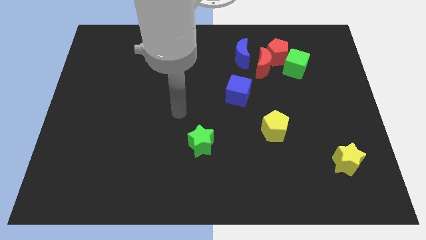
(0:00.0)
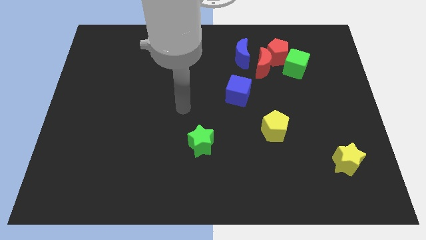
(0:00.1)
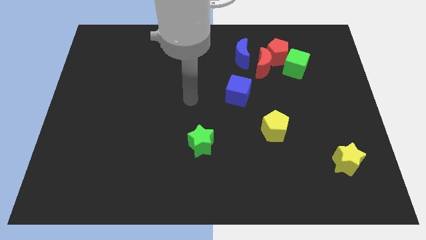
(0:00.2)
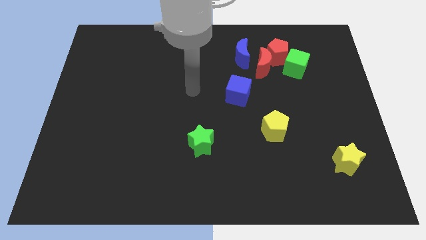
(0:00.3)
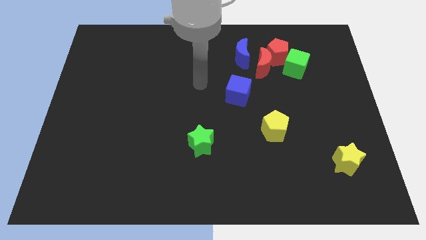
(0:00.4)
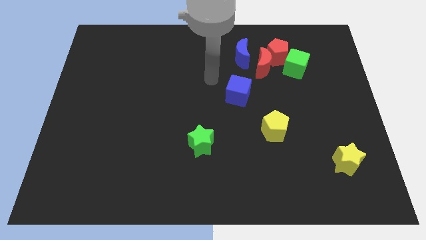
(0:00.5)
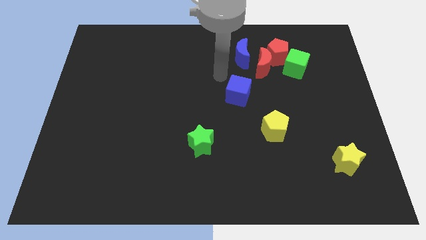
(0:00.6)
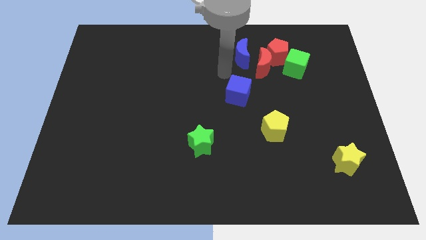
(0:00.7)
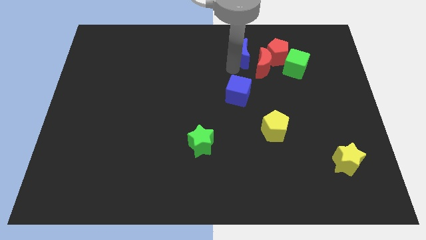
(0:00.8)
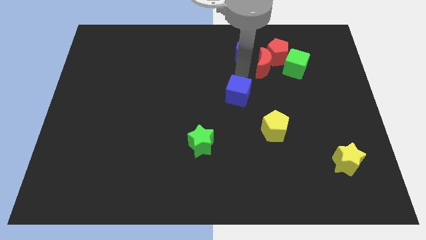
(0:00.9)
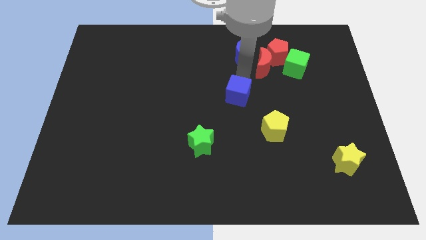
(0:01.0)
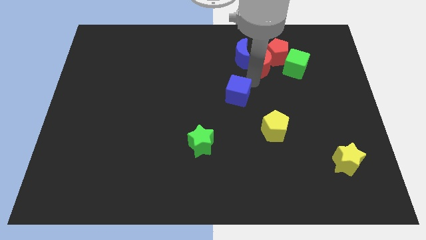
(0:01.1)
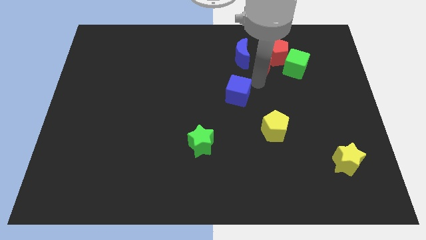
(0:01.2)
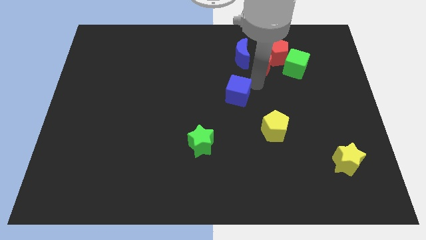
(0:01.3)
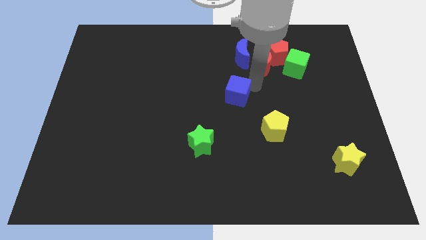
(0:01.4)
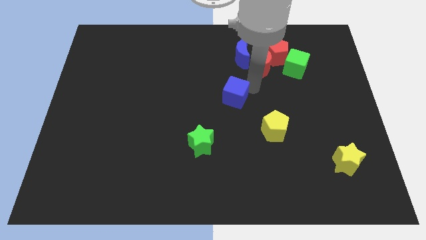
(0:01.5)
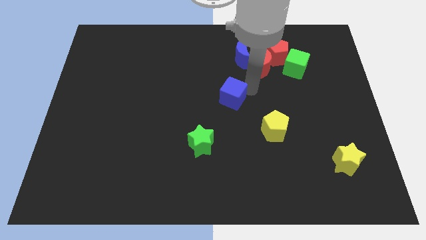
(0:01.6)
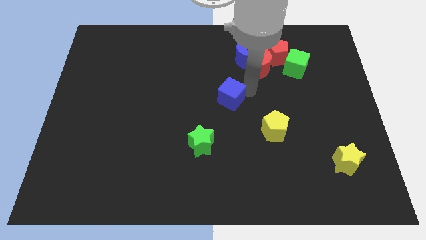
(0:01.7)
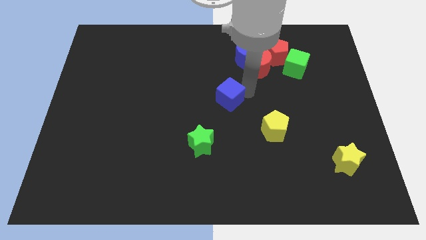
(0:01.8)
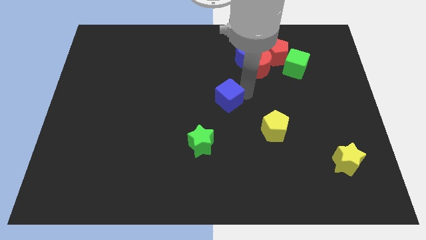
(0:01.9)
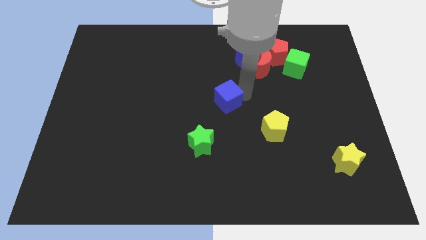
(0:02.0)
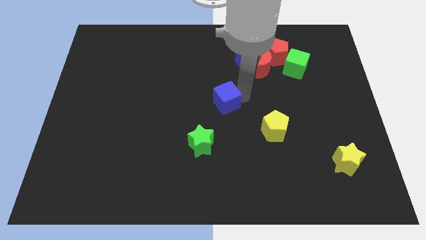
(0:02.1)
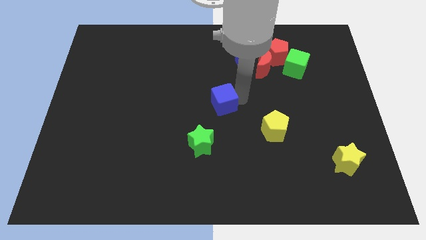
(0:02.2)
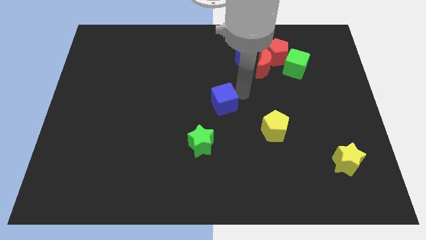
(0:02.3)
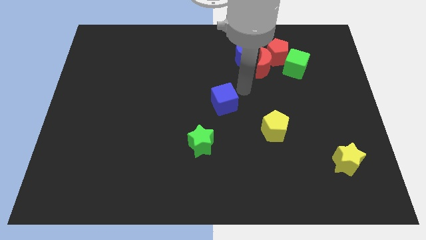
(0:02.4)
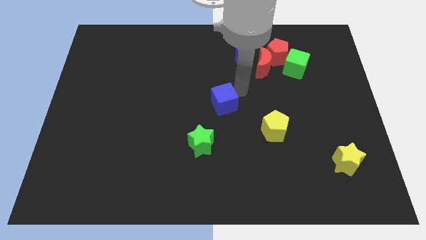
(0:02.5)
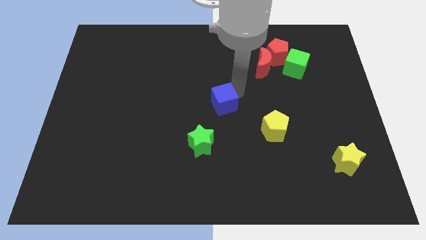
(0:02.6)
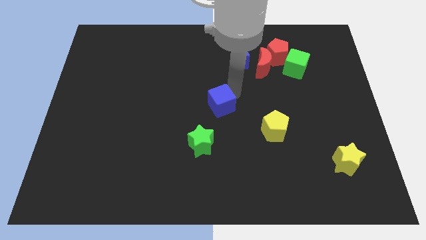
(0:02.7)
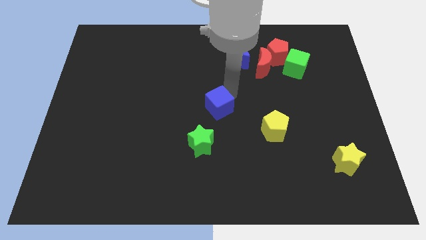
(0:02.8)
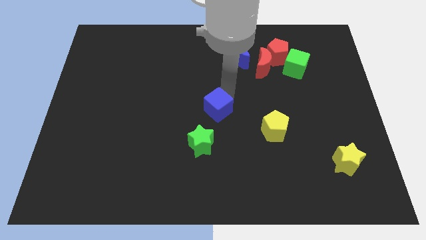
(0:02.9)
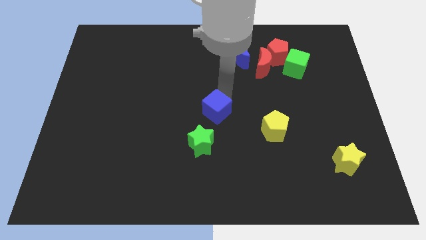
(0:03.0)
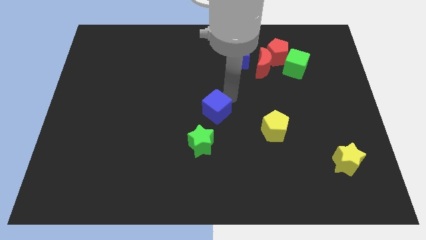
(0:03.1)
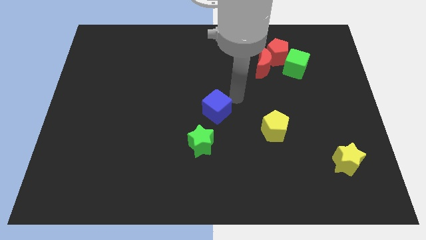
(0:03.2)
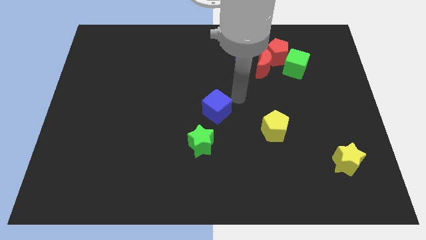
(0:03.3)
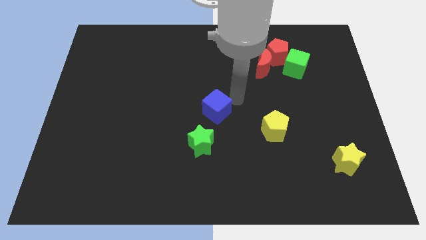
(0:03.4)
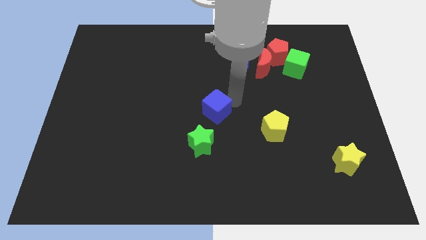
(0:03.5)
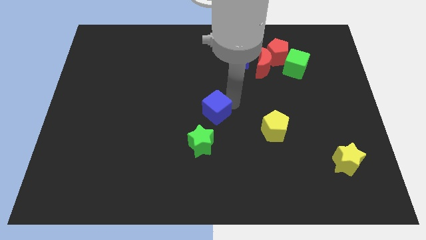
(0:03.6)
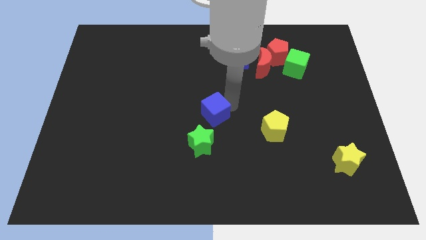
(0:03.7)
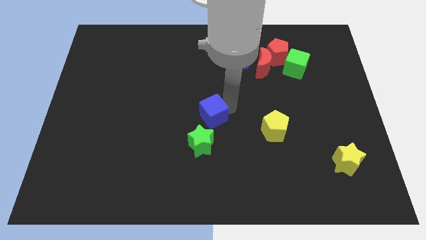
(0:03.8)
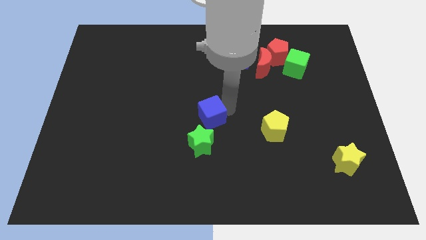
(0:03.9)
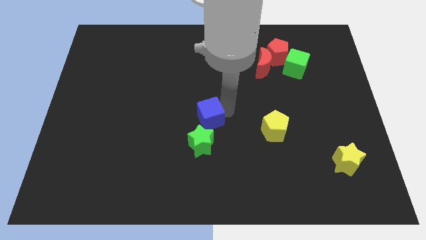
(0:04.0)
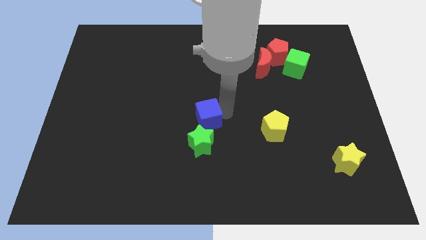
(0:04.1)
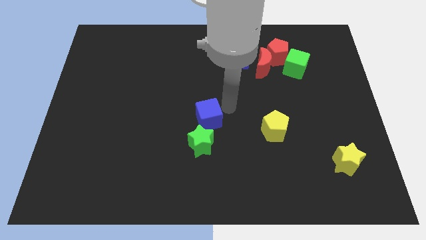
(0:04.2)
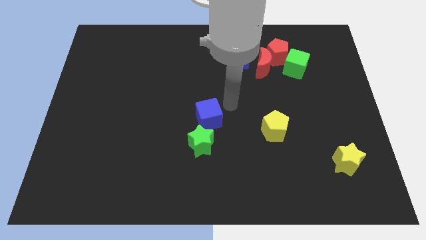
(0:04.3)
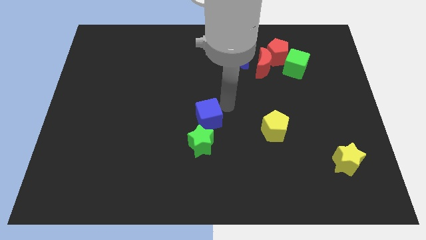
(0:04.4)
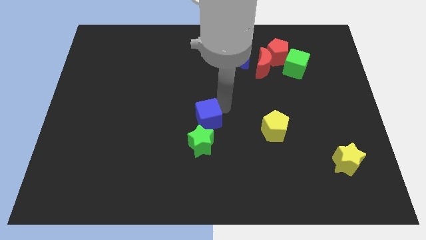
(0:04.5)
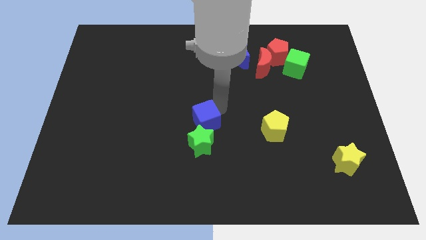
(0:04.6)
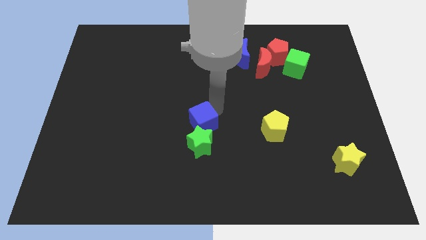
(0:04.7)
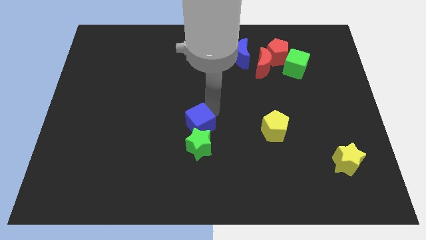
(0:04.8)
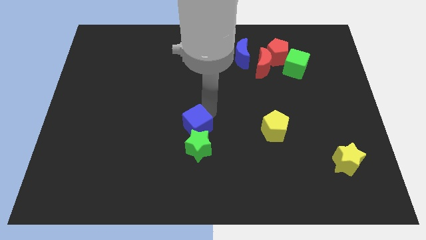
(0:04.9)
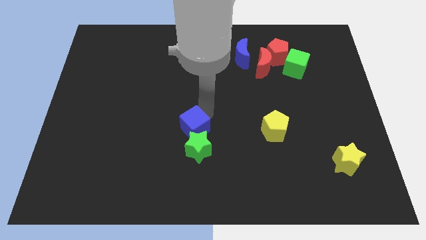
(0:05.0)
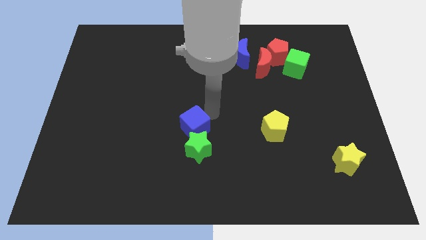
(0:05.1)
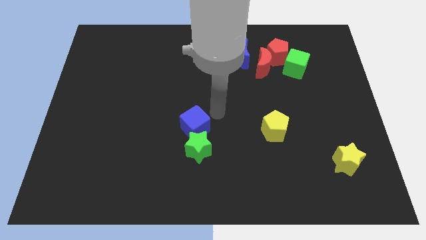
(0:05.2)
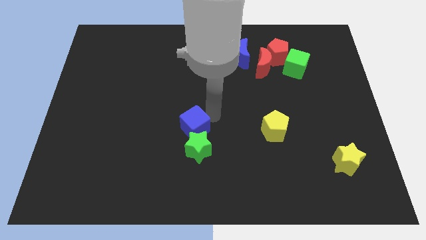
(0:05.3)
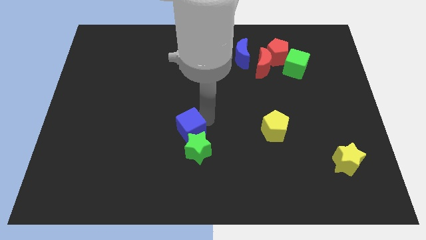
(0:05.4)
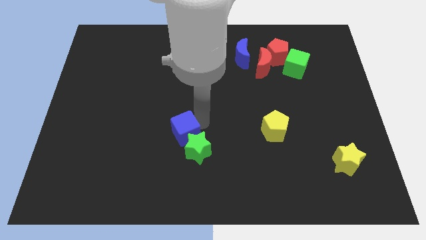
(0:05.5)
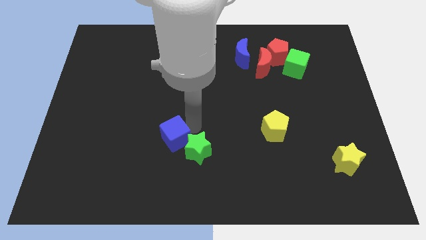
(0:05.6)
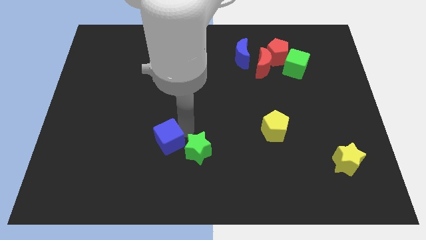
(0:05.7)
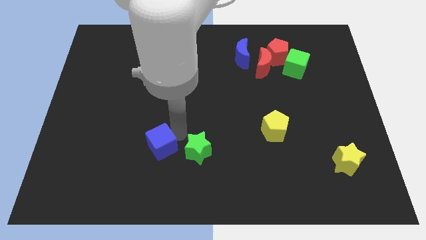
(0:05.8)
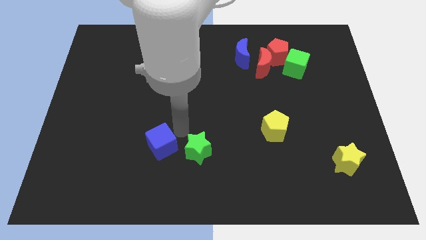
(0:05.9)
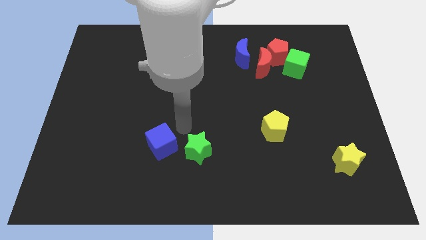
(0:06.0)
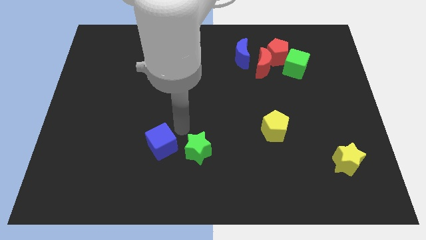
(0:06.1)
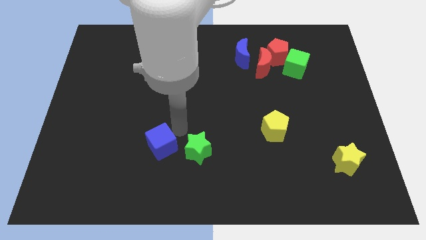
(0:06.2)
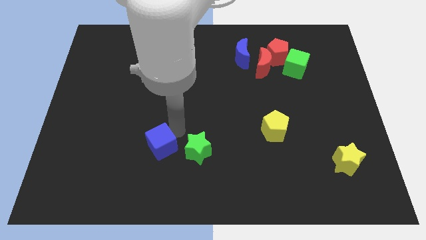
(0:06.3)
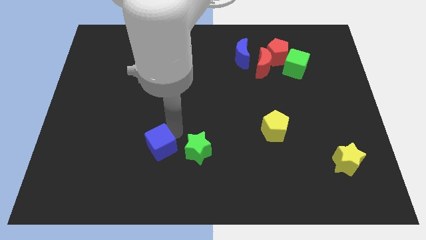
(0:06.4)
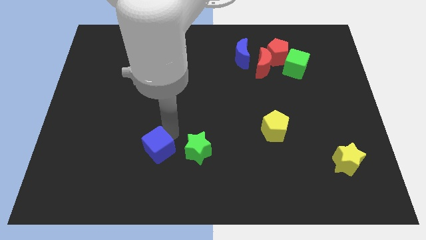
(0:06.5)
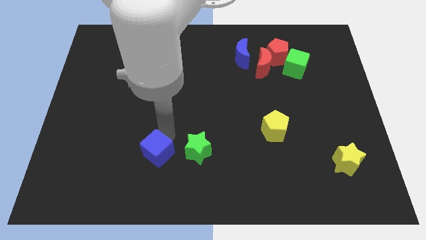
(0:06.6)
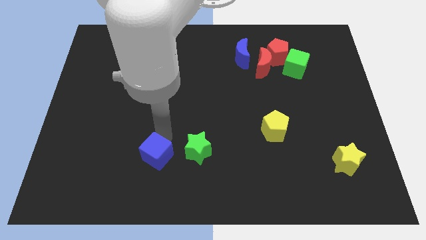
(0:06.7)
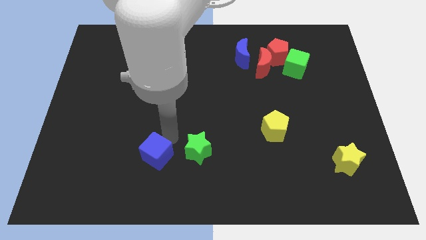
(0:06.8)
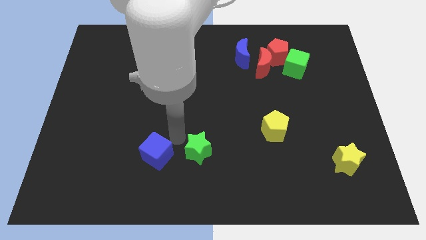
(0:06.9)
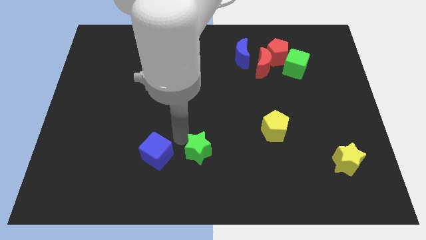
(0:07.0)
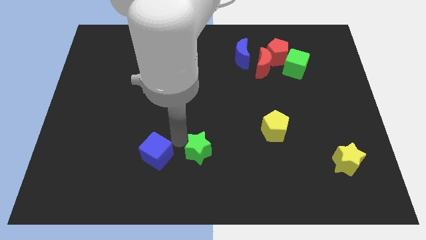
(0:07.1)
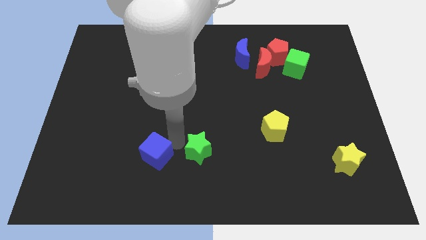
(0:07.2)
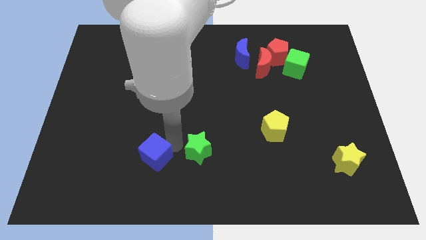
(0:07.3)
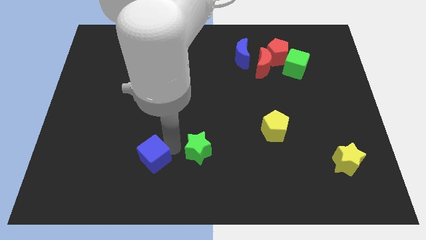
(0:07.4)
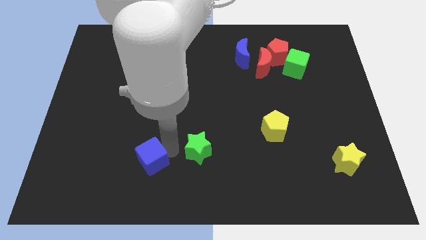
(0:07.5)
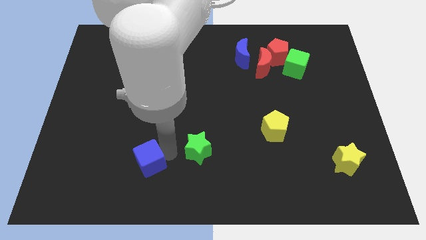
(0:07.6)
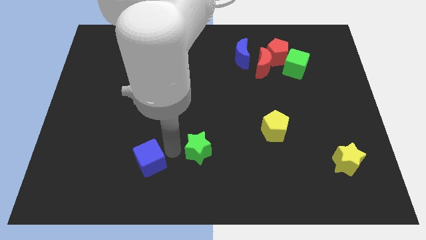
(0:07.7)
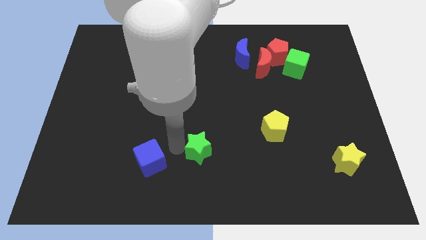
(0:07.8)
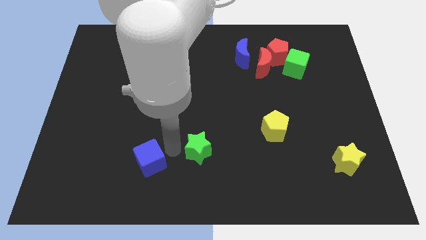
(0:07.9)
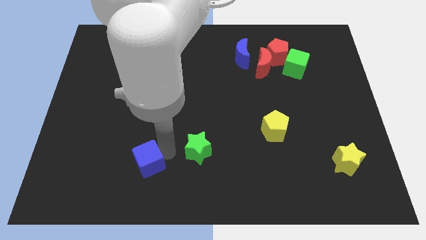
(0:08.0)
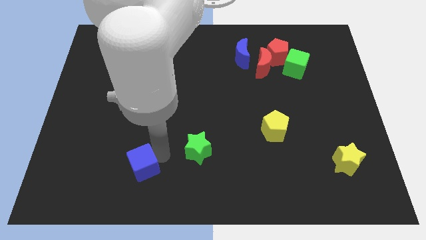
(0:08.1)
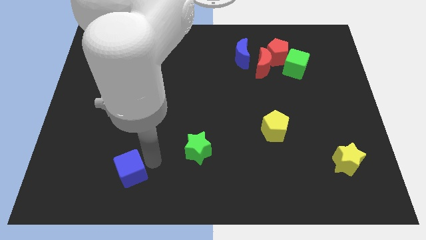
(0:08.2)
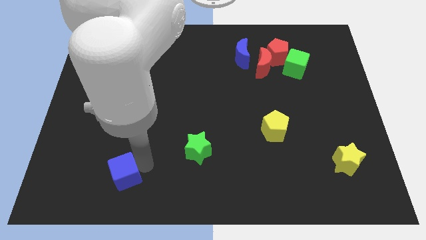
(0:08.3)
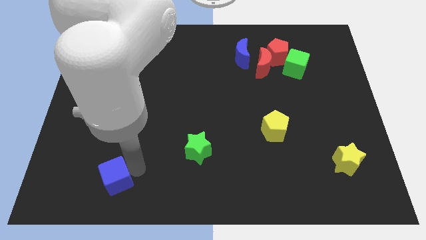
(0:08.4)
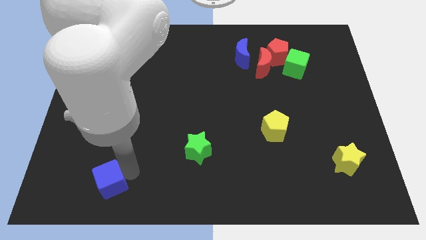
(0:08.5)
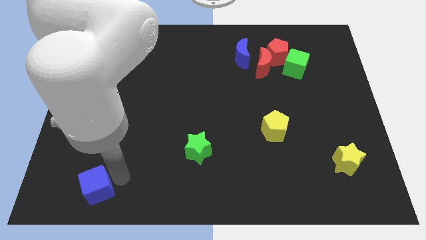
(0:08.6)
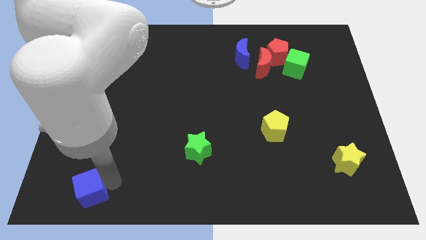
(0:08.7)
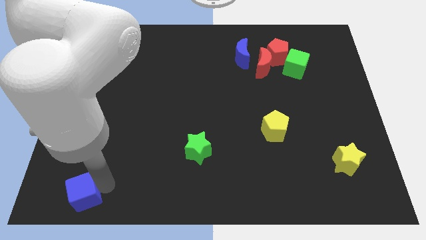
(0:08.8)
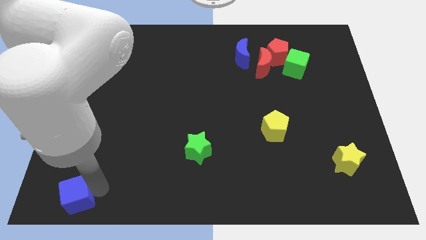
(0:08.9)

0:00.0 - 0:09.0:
push the blue cube to the bottom left of the board
